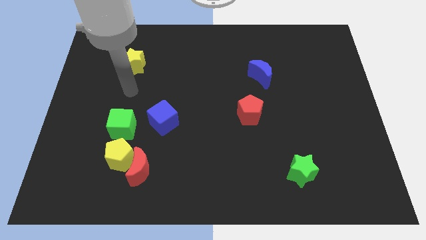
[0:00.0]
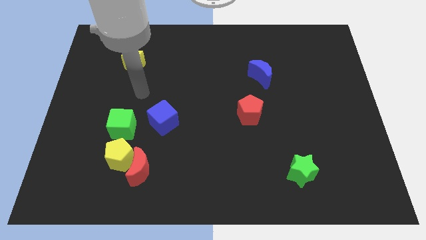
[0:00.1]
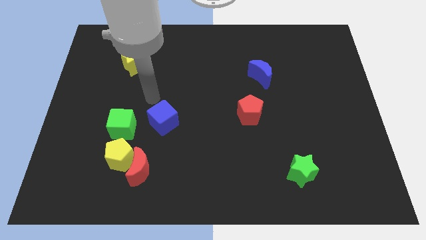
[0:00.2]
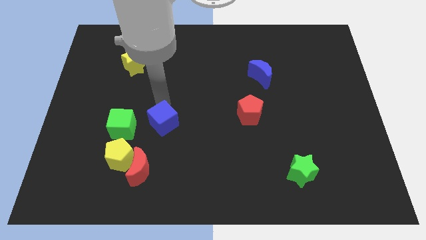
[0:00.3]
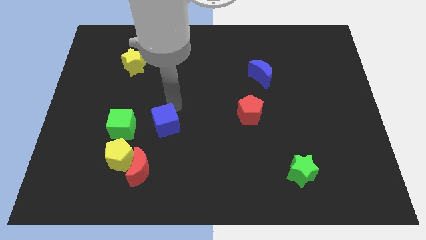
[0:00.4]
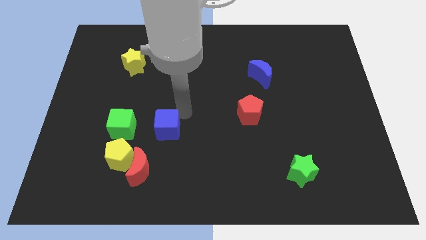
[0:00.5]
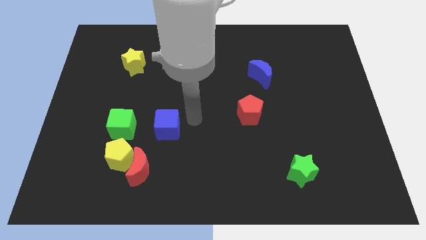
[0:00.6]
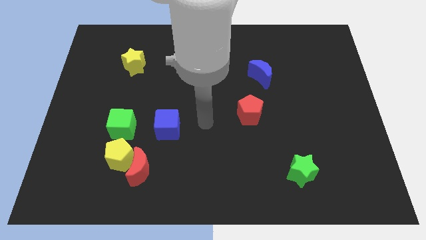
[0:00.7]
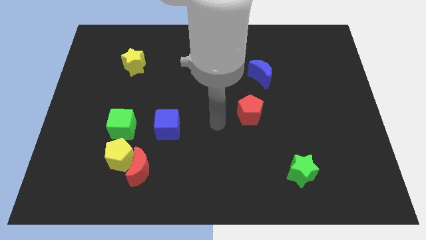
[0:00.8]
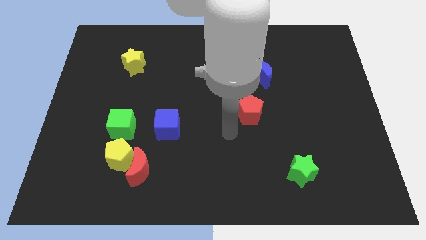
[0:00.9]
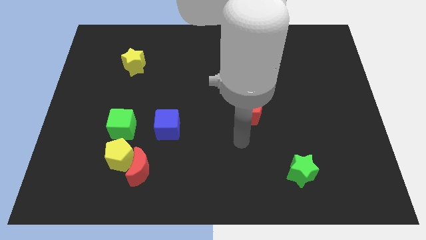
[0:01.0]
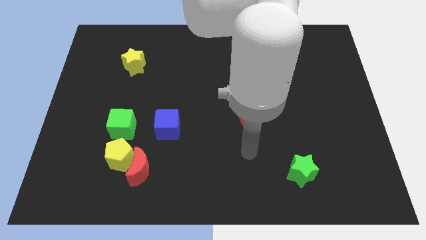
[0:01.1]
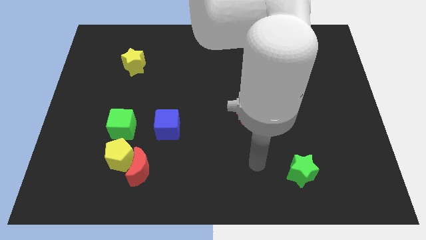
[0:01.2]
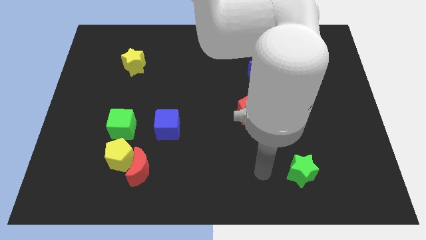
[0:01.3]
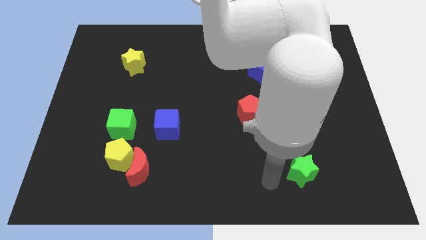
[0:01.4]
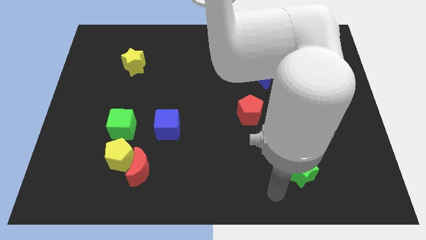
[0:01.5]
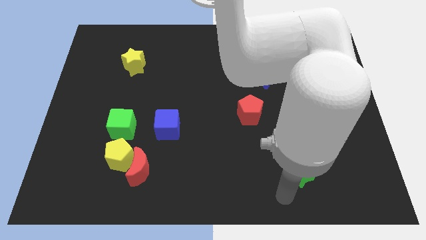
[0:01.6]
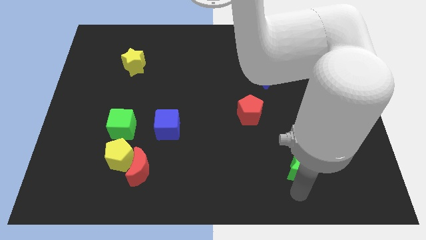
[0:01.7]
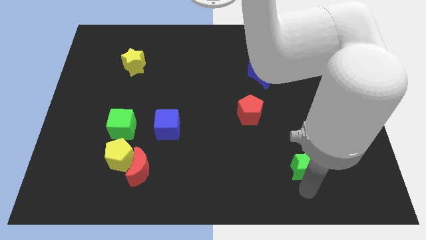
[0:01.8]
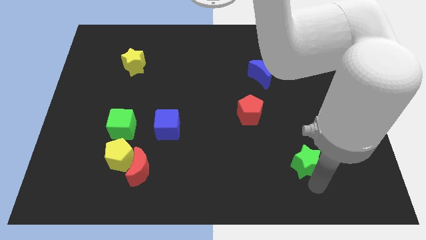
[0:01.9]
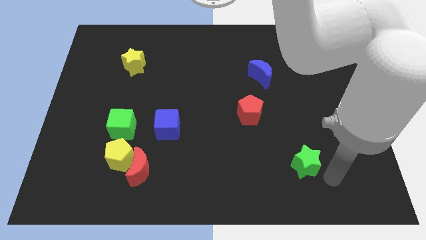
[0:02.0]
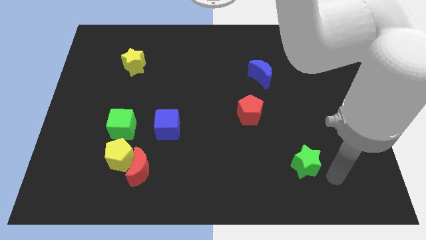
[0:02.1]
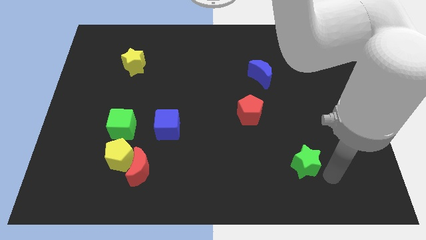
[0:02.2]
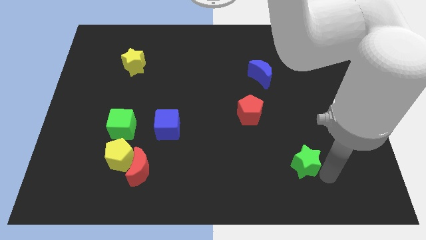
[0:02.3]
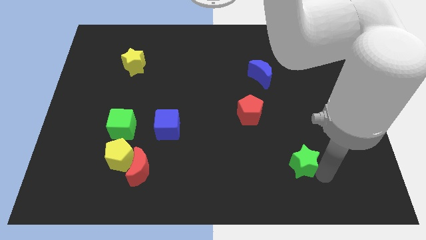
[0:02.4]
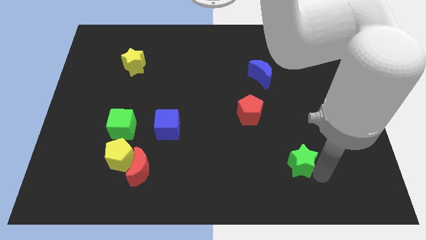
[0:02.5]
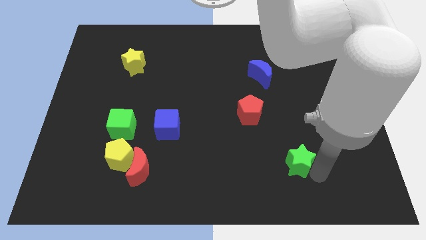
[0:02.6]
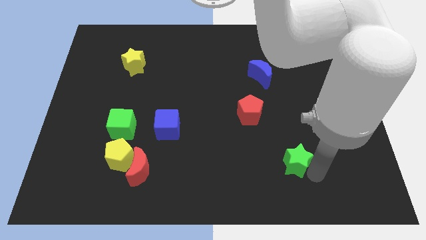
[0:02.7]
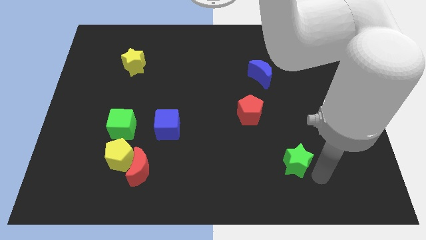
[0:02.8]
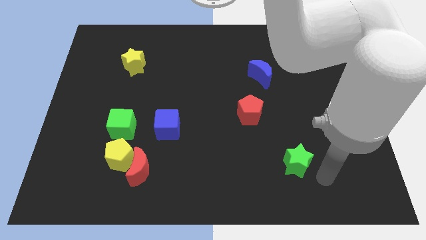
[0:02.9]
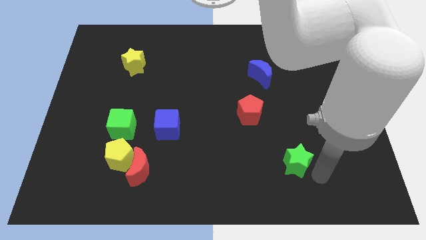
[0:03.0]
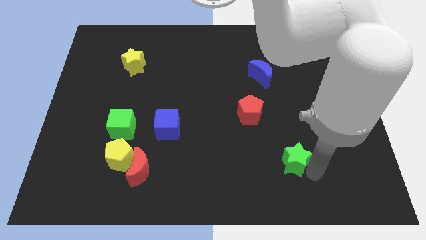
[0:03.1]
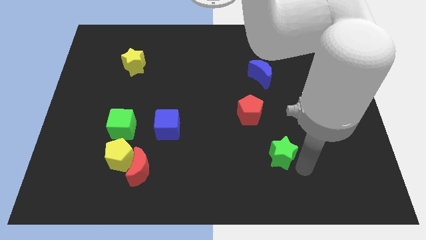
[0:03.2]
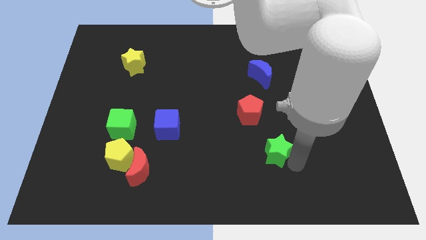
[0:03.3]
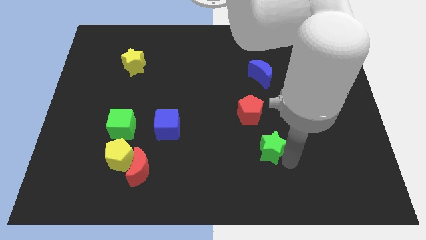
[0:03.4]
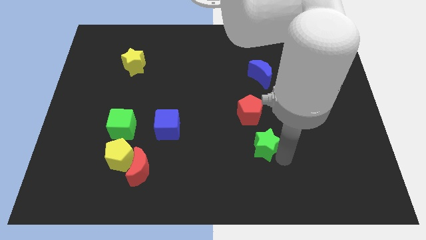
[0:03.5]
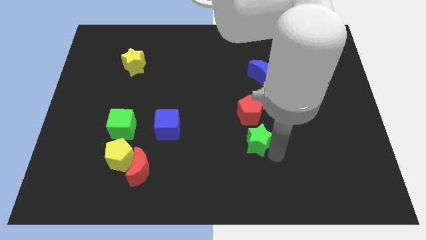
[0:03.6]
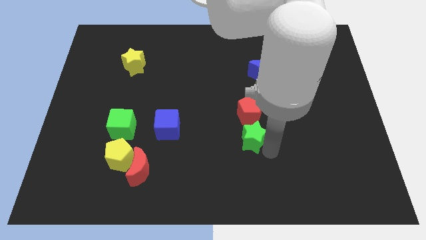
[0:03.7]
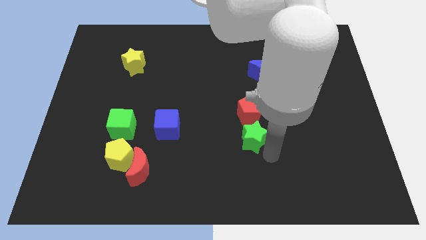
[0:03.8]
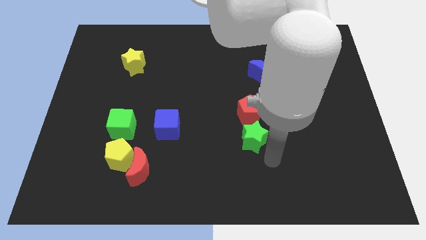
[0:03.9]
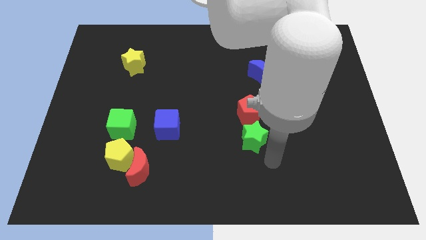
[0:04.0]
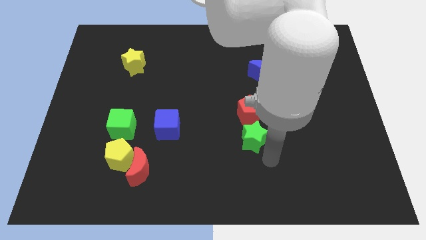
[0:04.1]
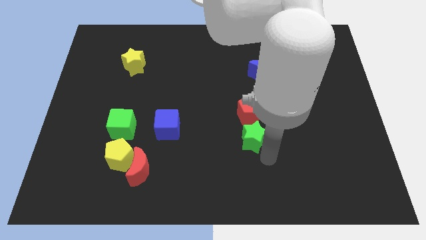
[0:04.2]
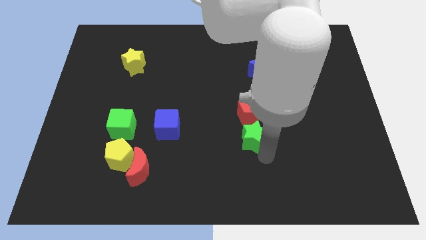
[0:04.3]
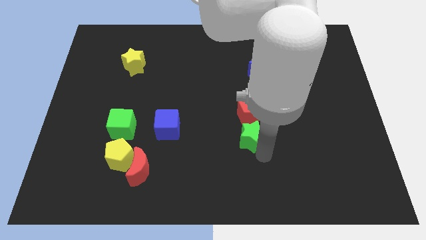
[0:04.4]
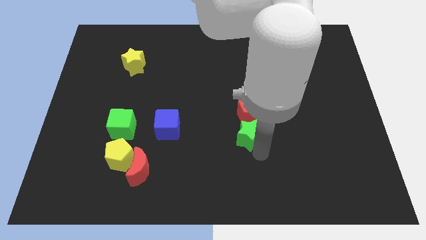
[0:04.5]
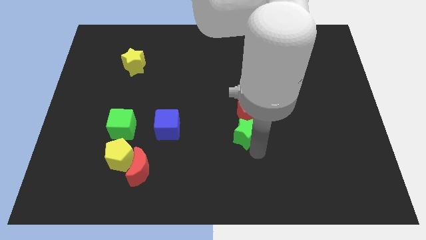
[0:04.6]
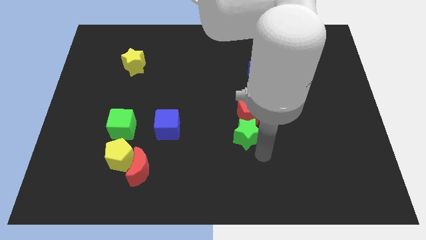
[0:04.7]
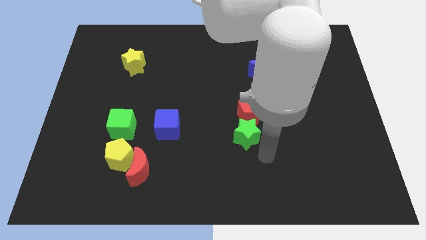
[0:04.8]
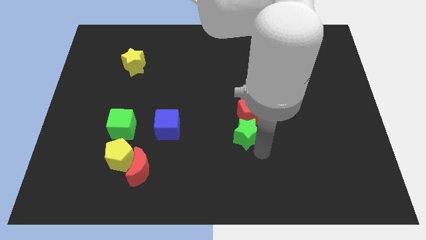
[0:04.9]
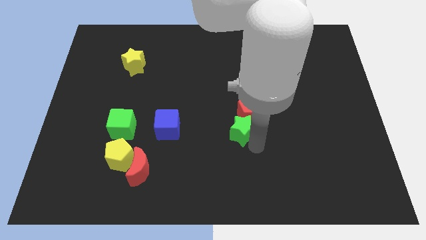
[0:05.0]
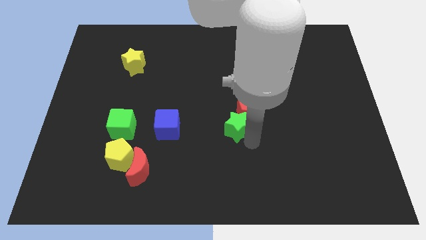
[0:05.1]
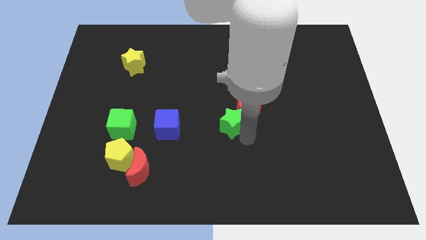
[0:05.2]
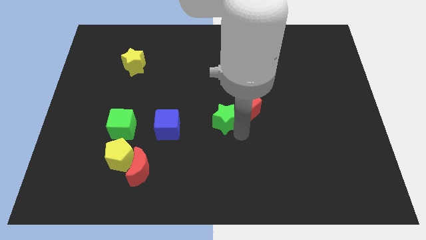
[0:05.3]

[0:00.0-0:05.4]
push the green star upwards and to the left diagonally

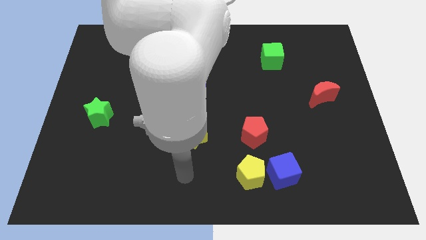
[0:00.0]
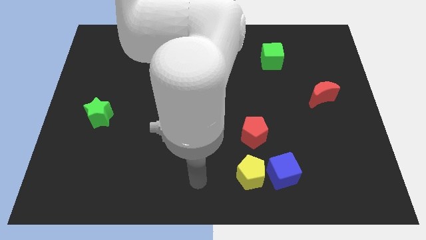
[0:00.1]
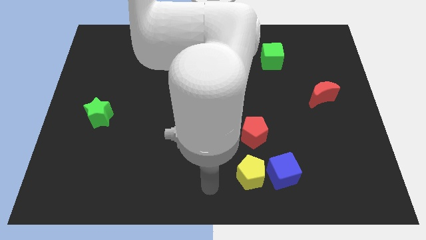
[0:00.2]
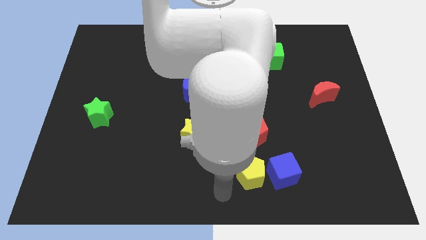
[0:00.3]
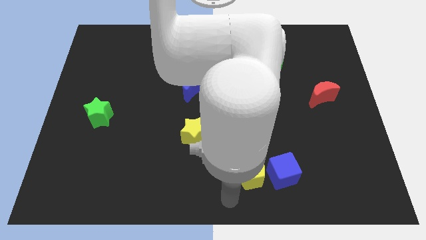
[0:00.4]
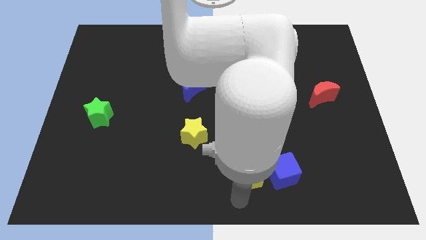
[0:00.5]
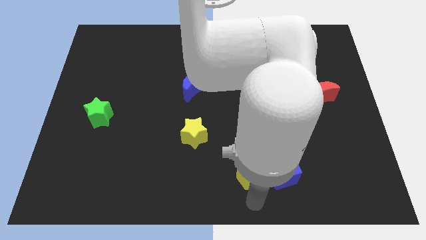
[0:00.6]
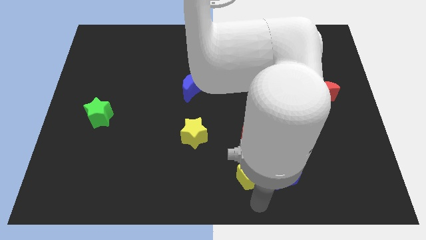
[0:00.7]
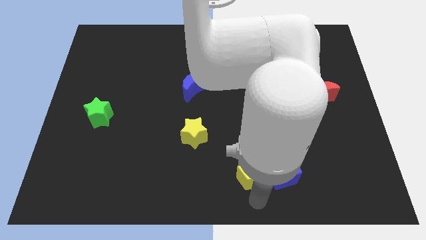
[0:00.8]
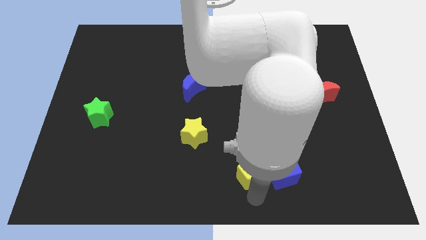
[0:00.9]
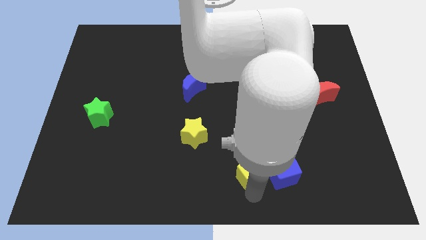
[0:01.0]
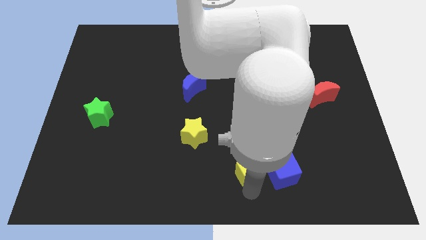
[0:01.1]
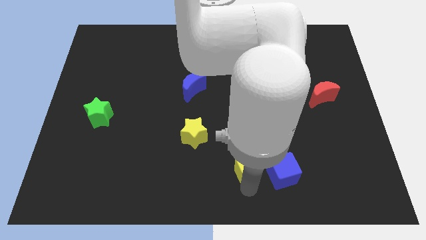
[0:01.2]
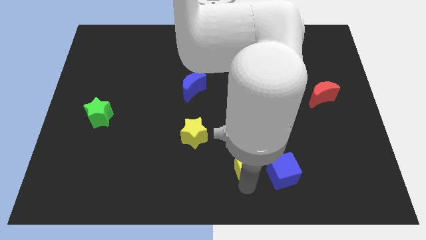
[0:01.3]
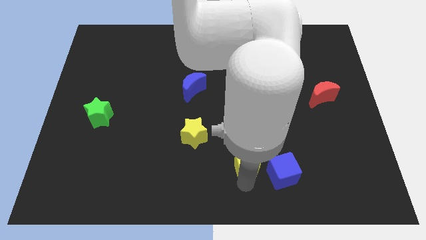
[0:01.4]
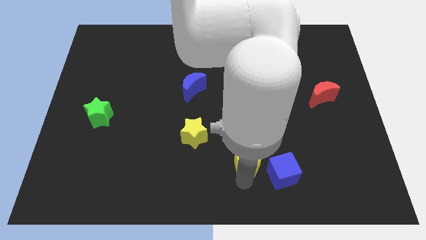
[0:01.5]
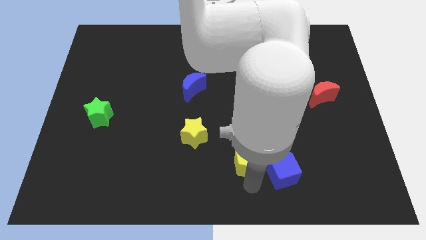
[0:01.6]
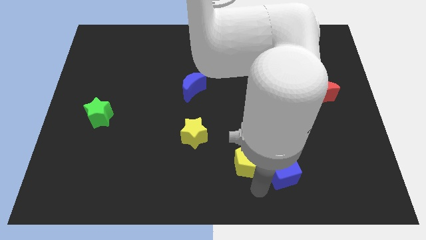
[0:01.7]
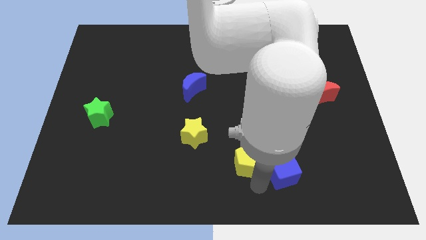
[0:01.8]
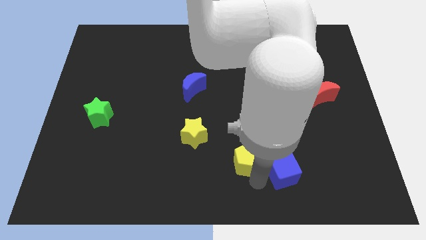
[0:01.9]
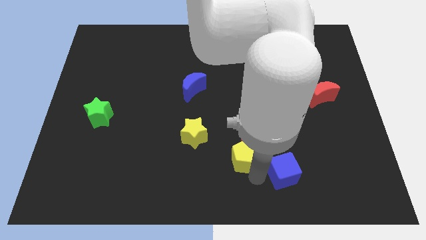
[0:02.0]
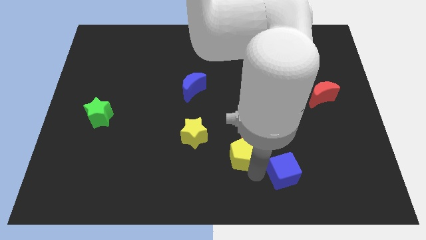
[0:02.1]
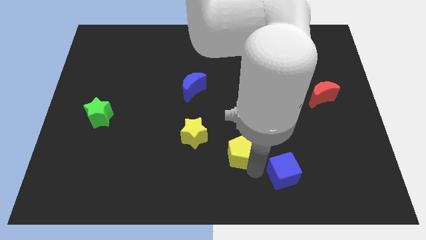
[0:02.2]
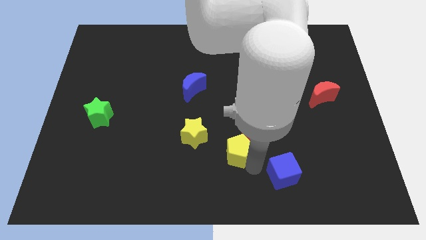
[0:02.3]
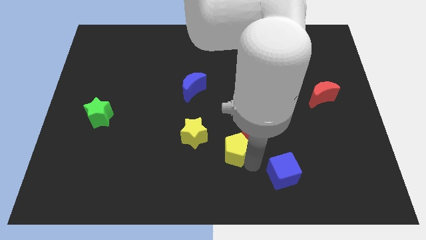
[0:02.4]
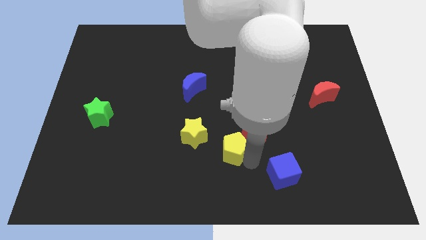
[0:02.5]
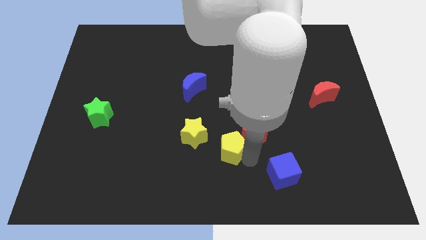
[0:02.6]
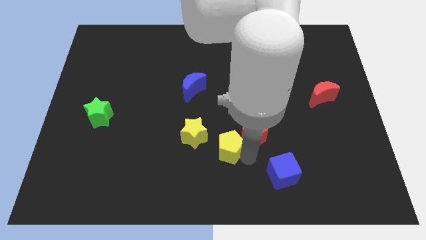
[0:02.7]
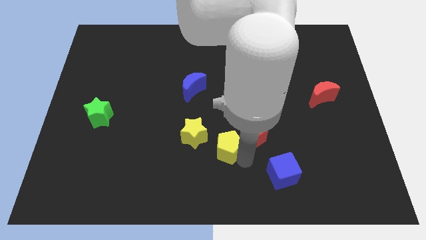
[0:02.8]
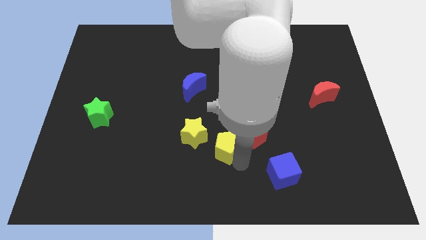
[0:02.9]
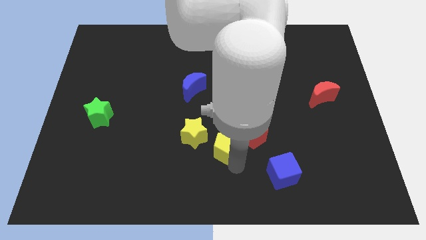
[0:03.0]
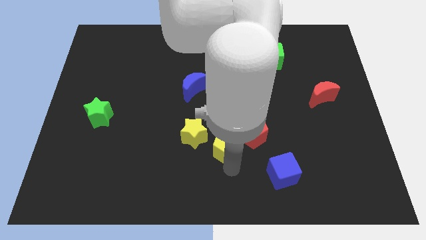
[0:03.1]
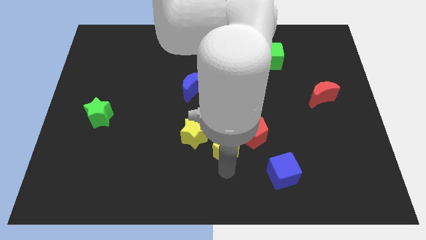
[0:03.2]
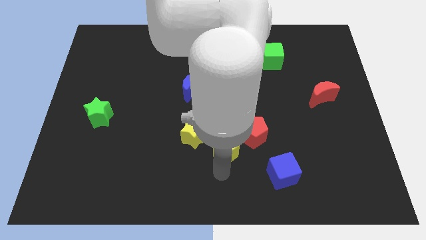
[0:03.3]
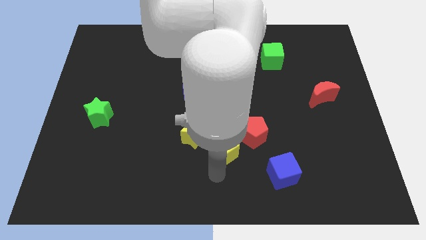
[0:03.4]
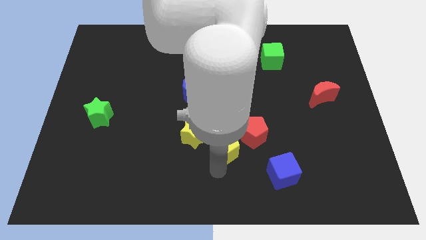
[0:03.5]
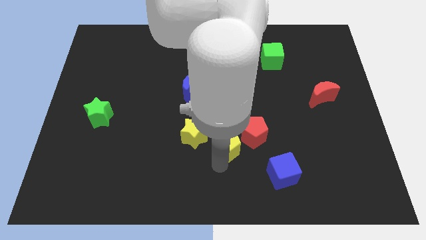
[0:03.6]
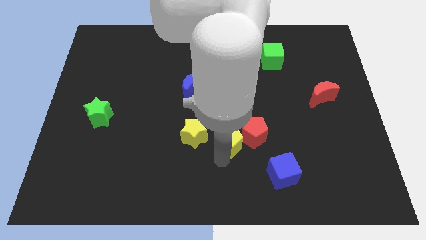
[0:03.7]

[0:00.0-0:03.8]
slide the yellow pentagon a little bit up
